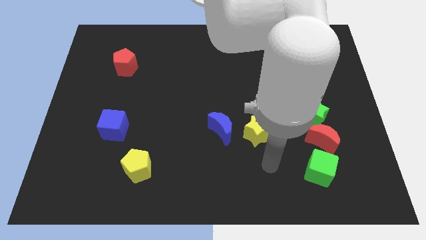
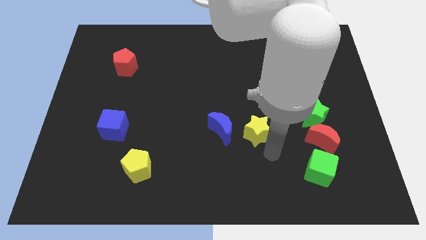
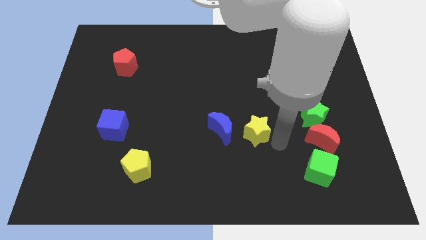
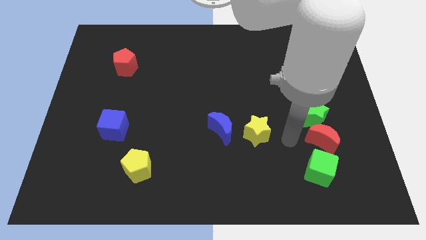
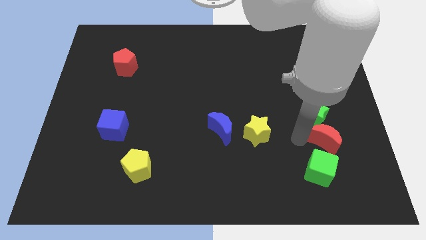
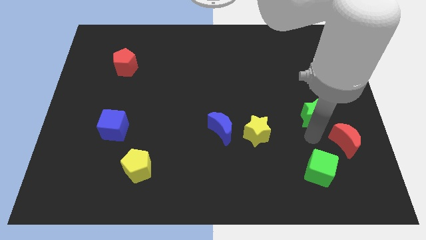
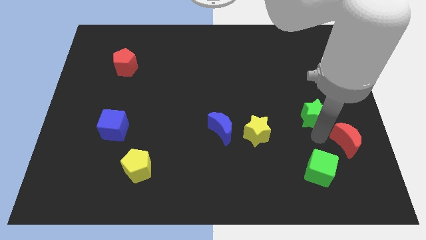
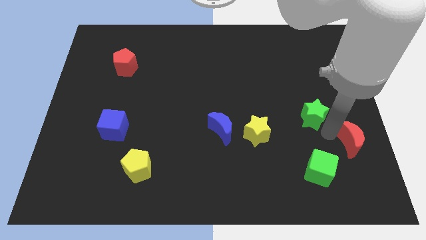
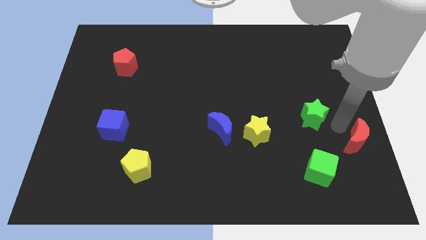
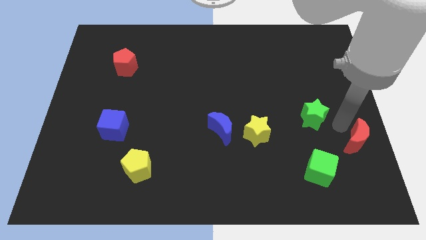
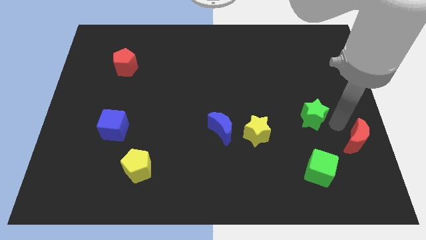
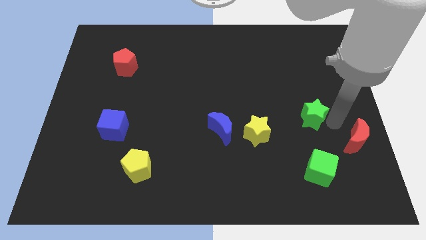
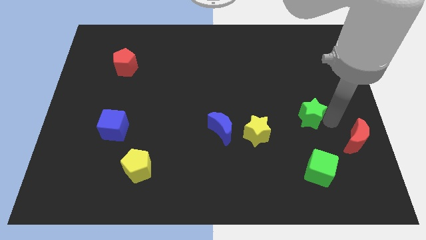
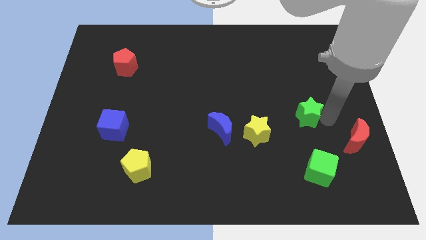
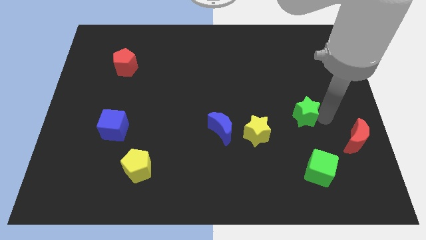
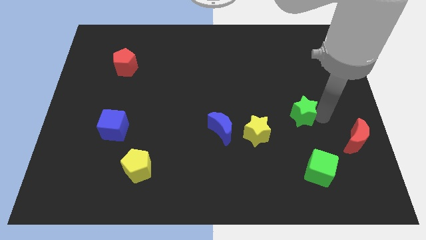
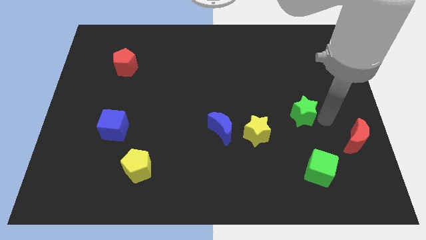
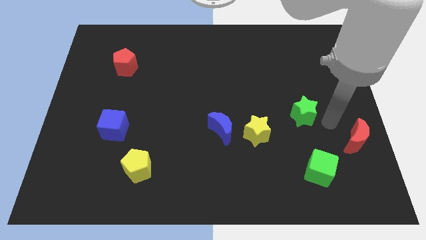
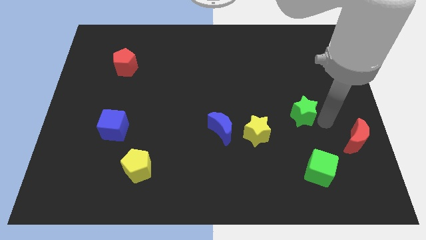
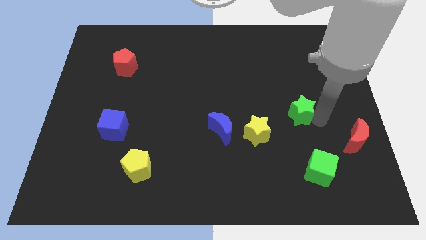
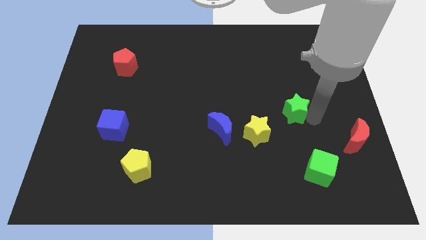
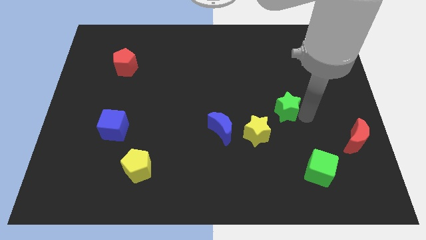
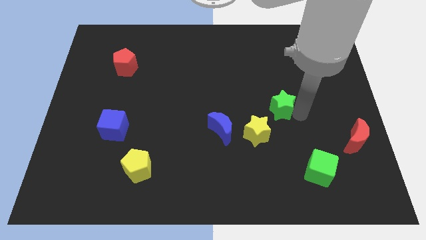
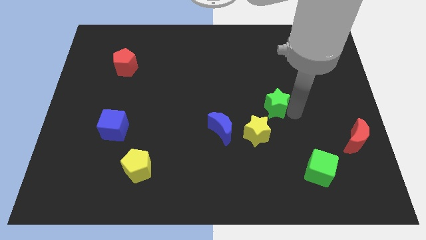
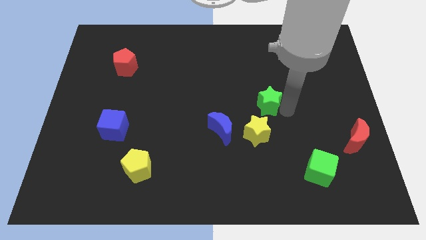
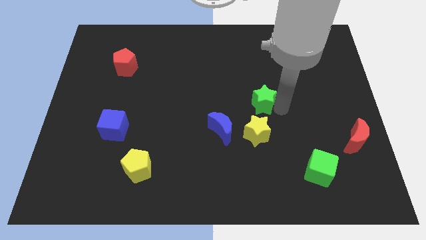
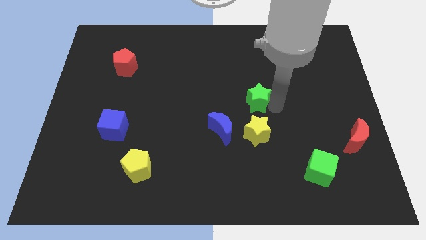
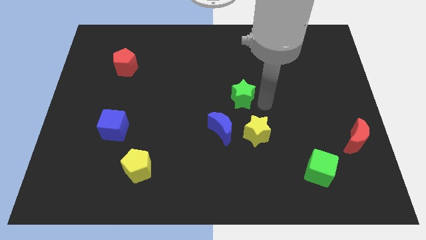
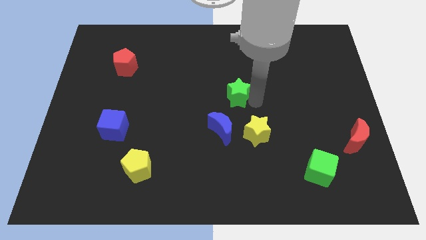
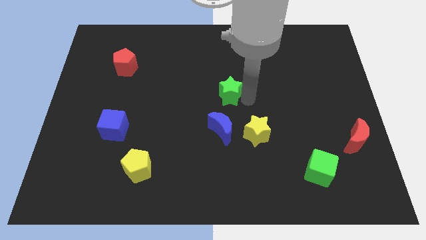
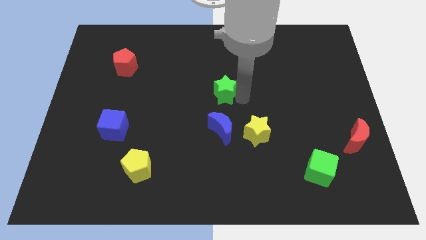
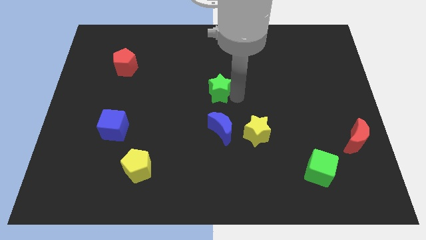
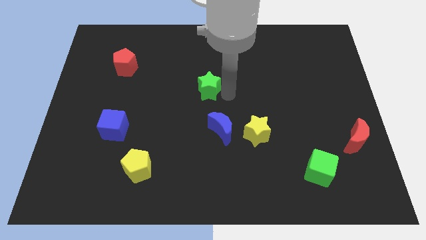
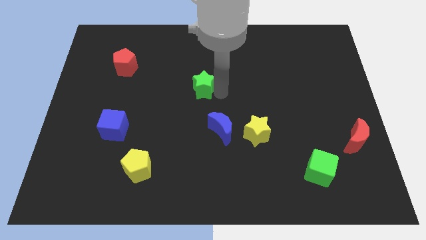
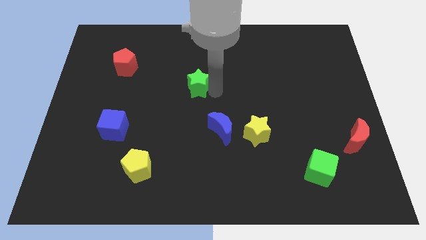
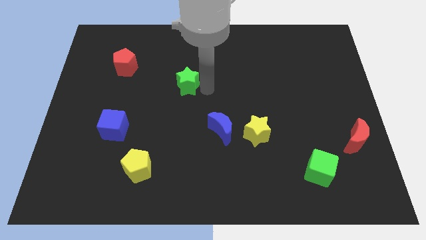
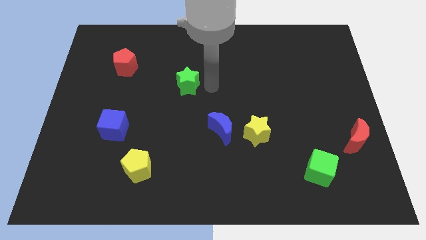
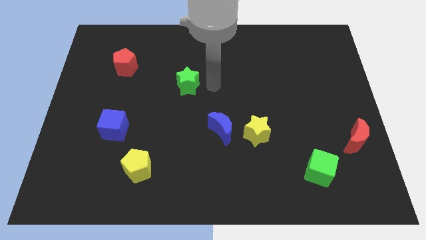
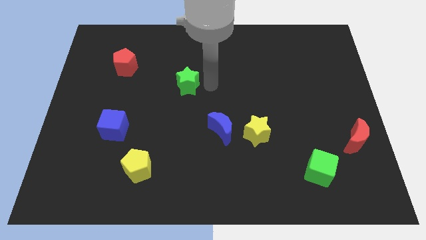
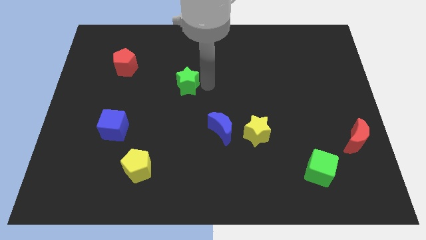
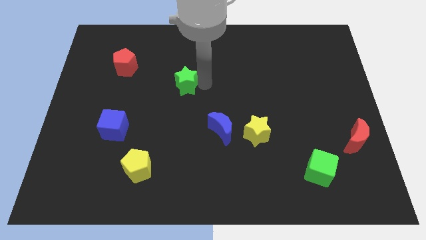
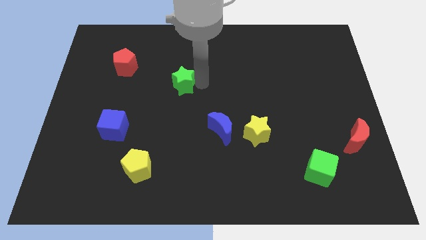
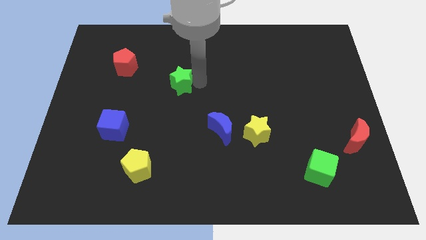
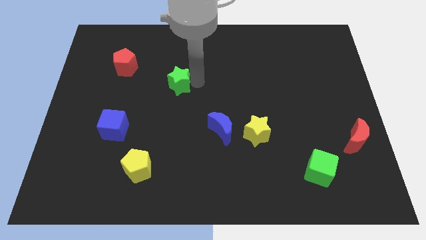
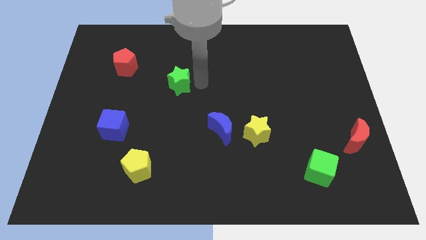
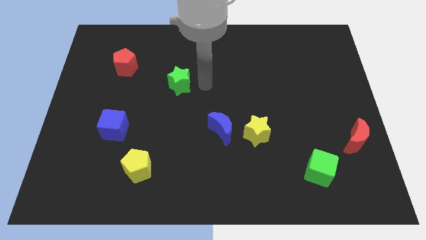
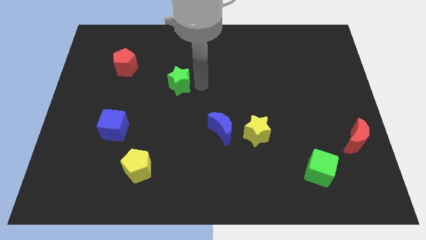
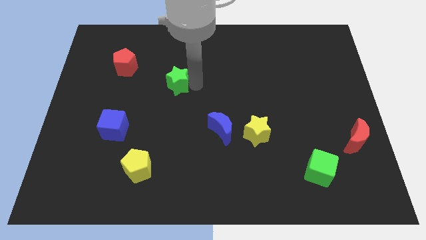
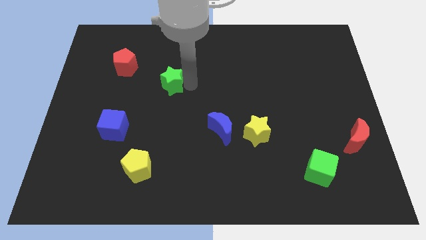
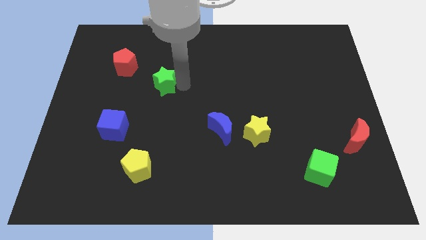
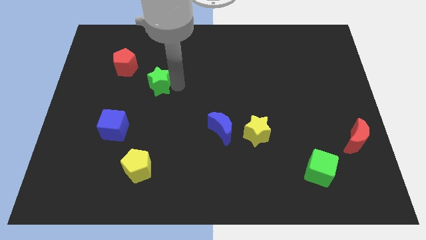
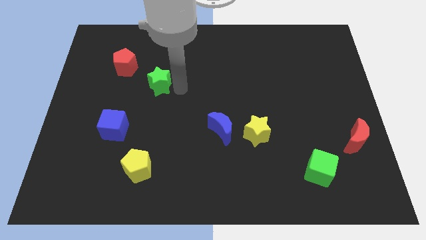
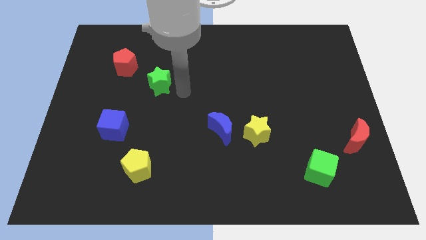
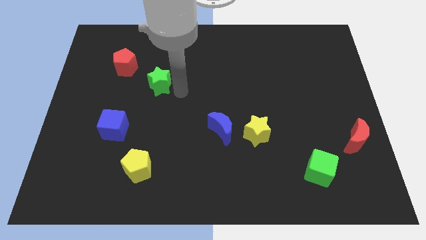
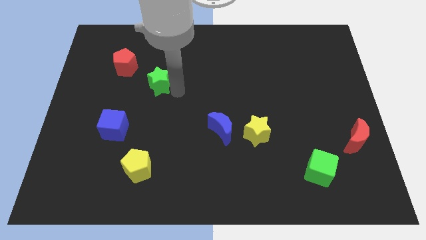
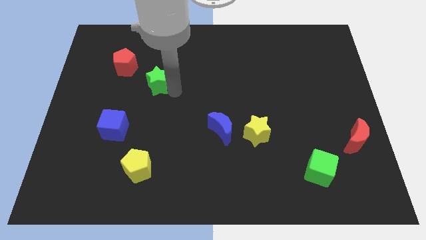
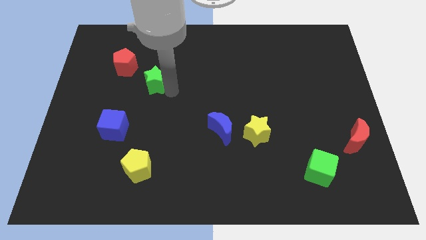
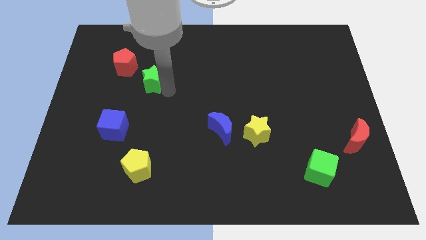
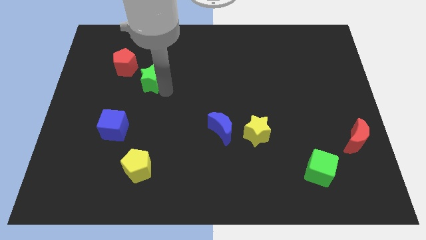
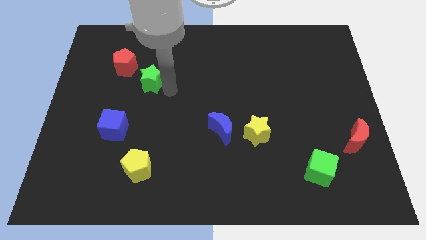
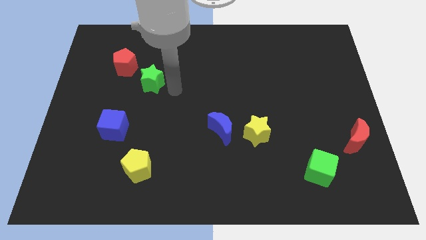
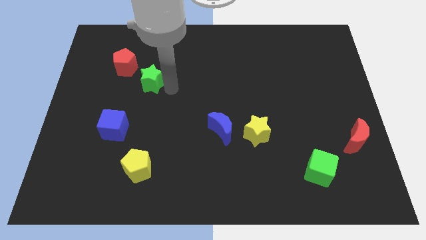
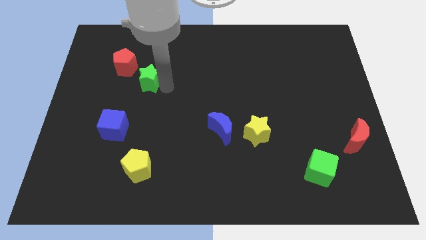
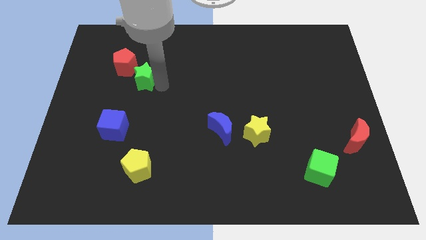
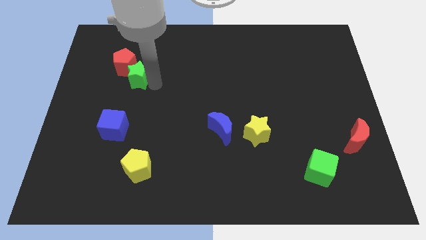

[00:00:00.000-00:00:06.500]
slide the green star towards the red pentagon

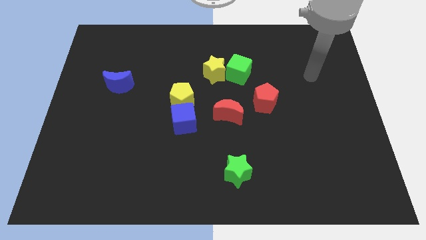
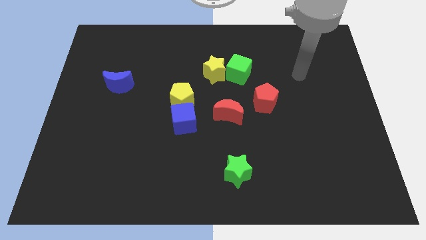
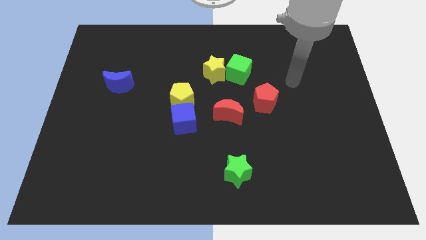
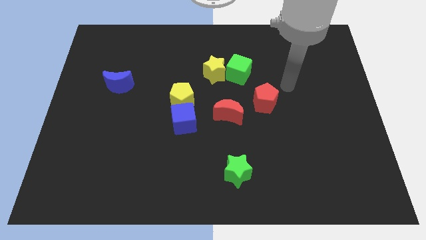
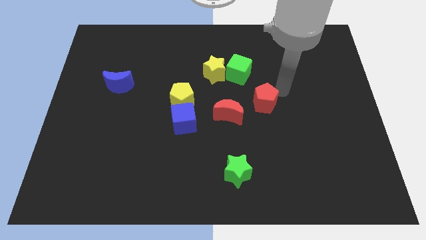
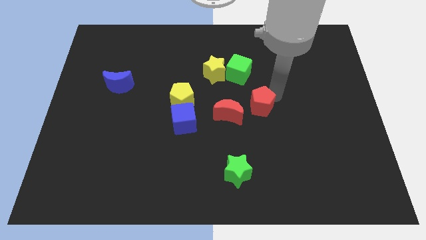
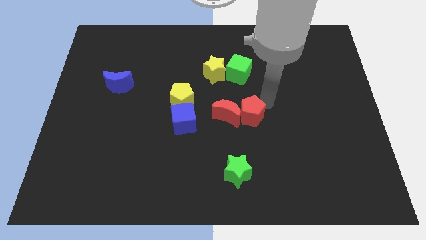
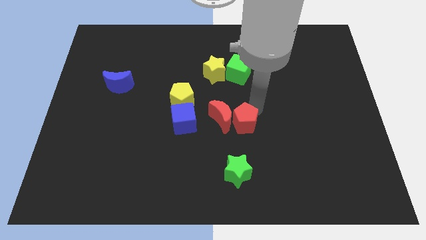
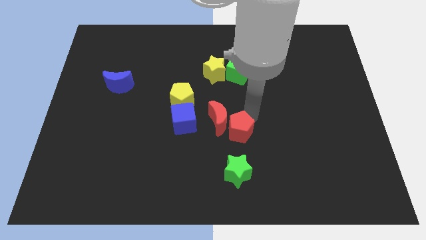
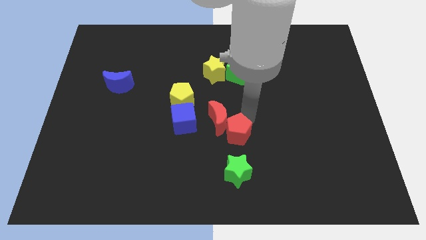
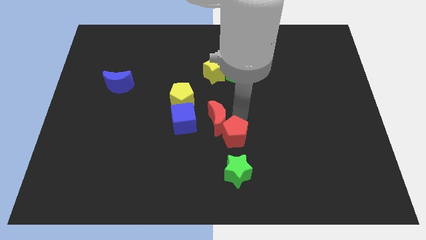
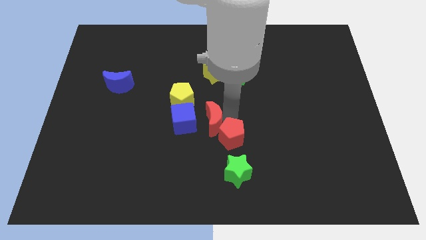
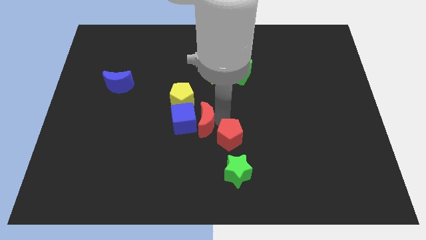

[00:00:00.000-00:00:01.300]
move the red moon close to the blue cube
